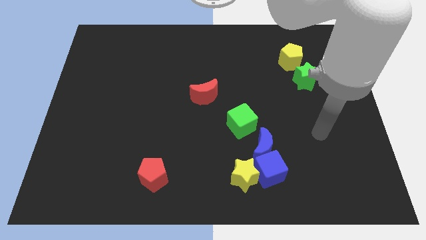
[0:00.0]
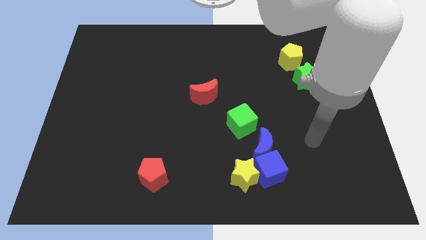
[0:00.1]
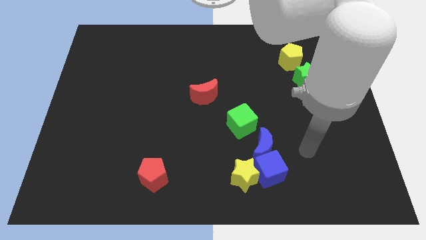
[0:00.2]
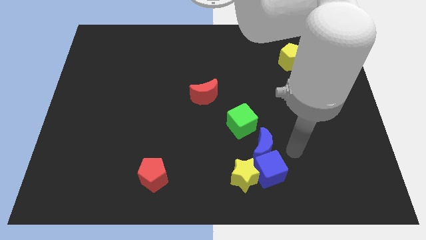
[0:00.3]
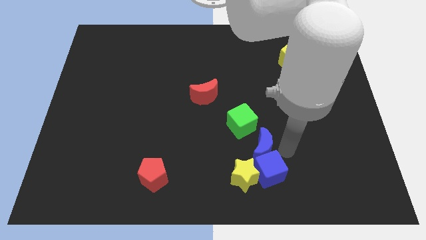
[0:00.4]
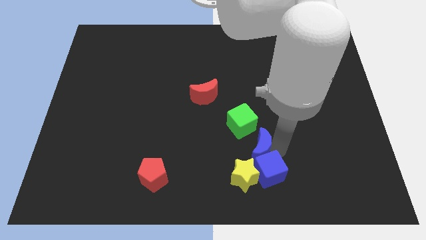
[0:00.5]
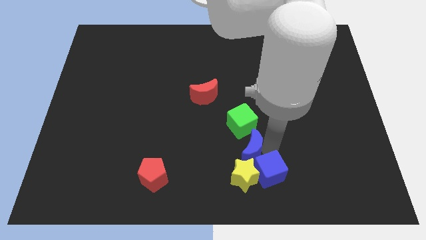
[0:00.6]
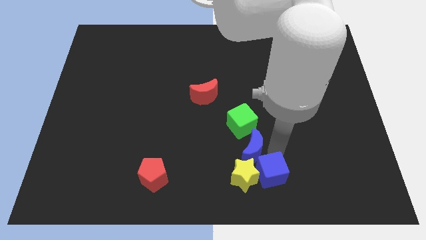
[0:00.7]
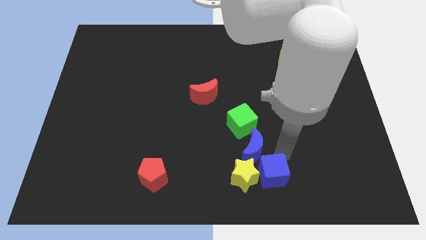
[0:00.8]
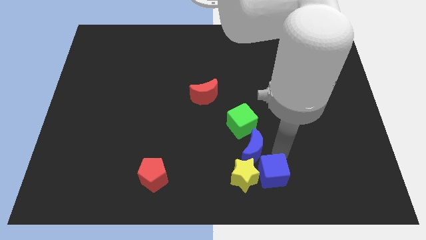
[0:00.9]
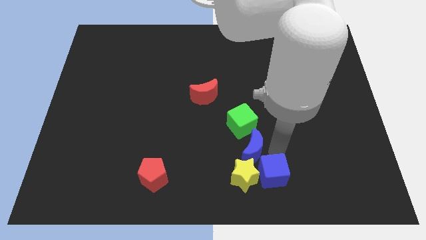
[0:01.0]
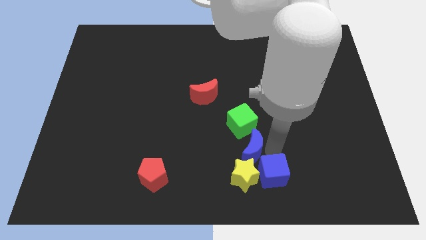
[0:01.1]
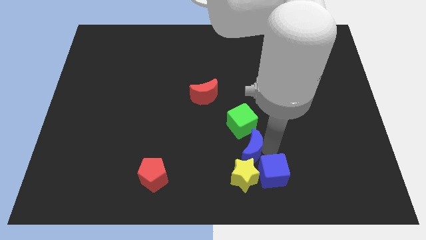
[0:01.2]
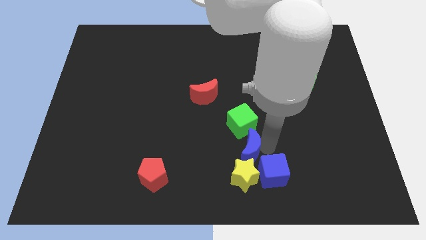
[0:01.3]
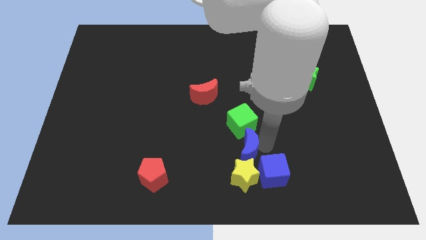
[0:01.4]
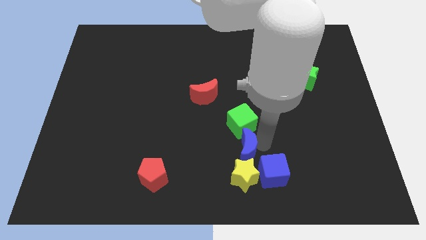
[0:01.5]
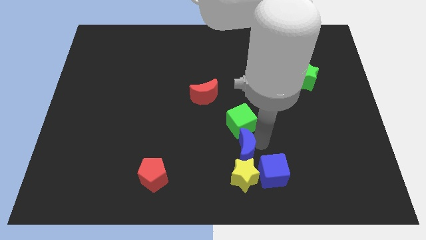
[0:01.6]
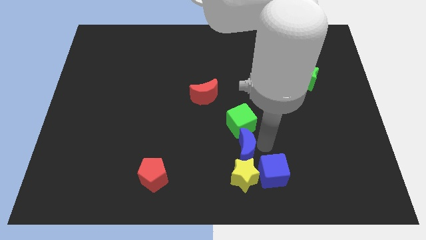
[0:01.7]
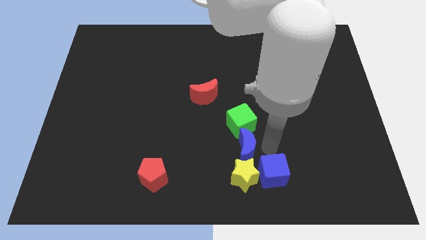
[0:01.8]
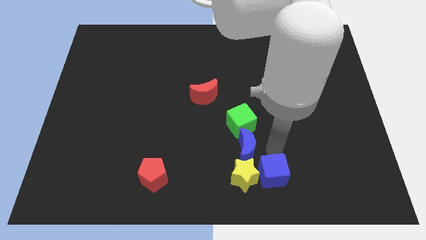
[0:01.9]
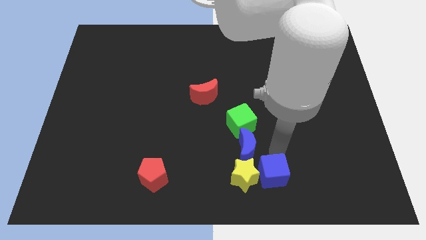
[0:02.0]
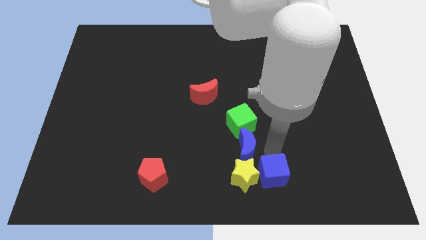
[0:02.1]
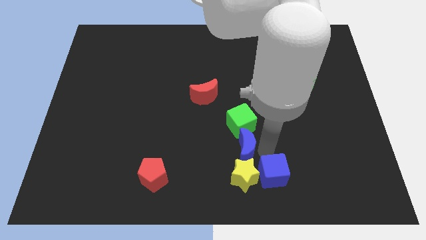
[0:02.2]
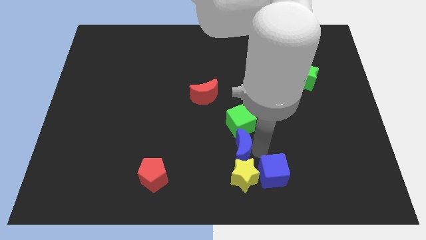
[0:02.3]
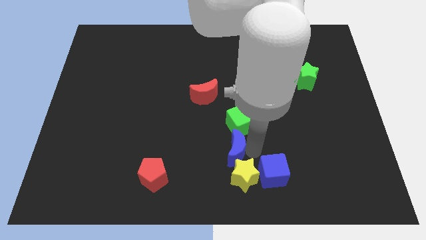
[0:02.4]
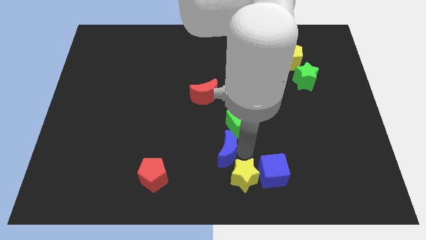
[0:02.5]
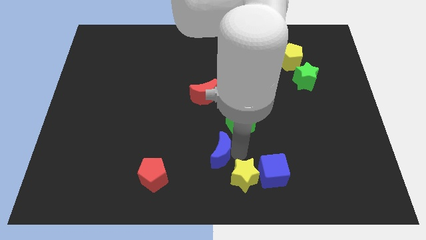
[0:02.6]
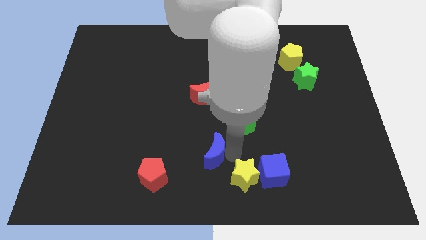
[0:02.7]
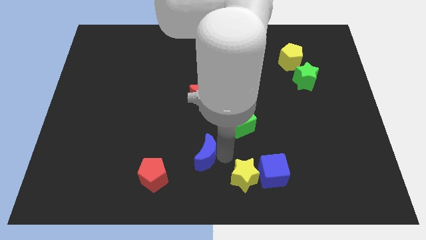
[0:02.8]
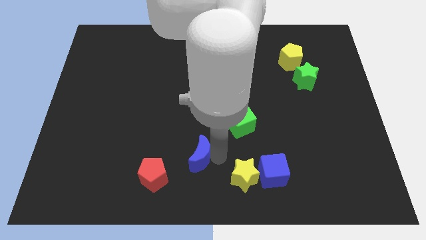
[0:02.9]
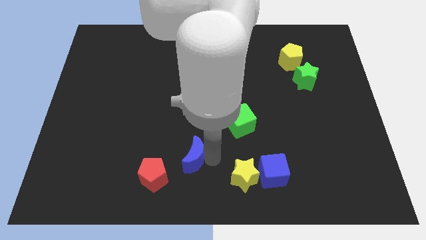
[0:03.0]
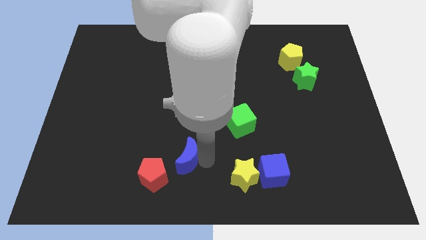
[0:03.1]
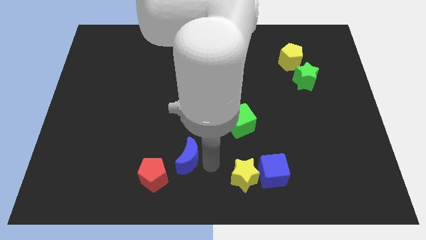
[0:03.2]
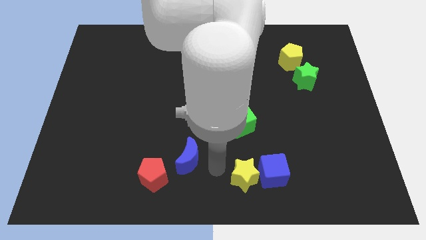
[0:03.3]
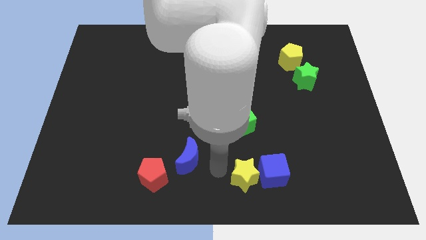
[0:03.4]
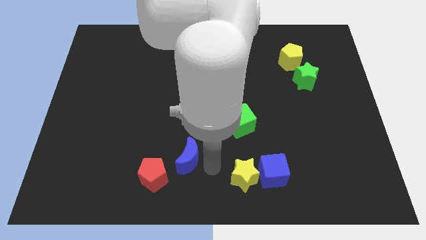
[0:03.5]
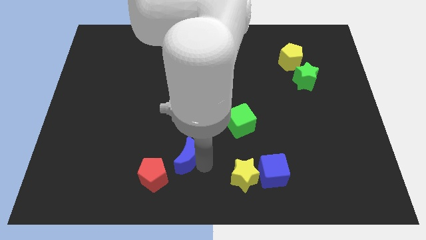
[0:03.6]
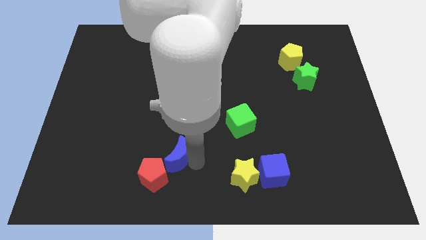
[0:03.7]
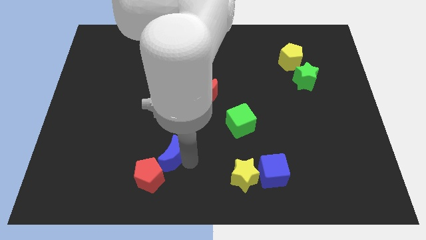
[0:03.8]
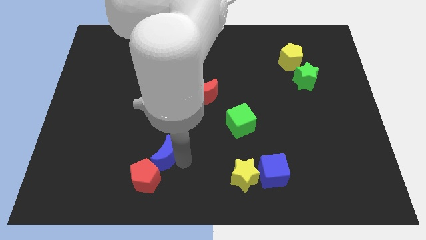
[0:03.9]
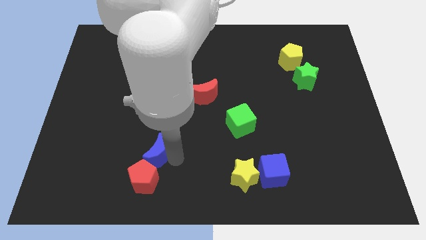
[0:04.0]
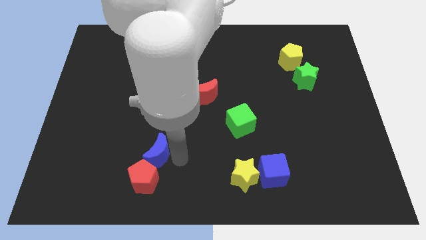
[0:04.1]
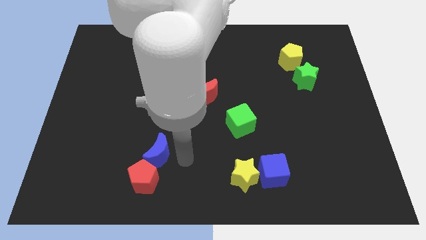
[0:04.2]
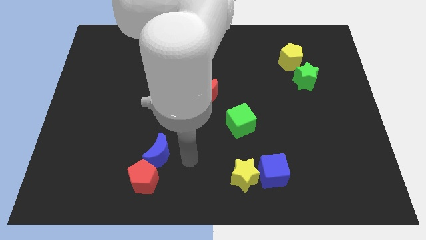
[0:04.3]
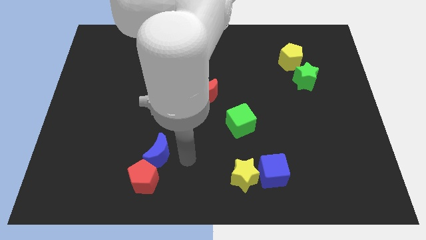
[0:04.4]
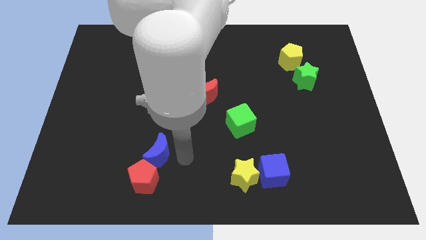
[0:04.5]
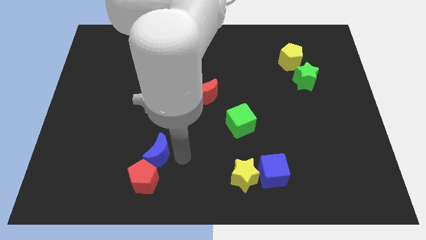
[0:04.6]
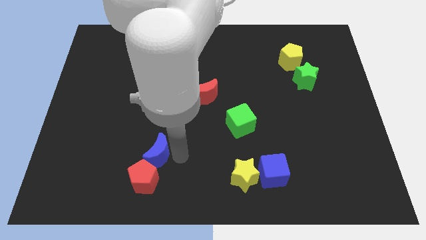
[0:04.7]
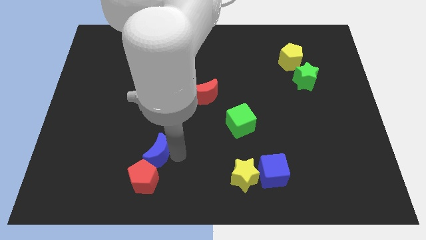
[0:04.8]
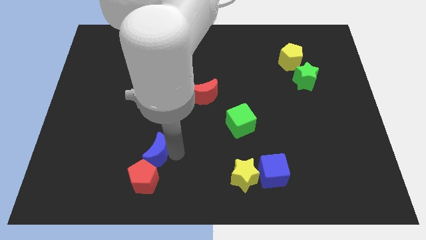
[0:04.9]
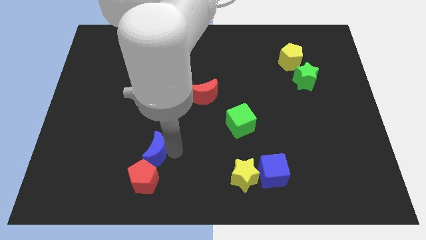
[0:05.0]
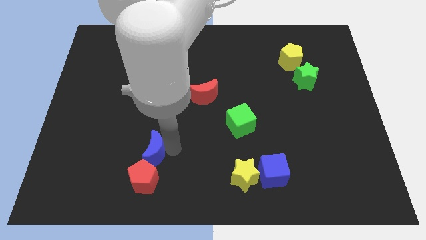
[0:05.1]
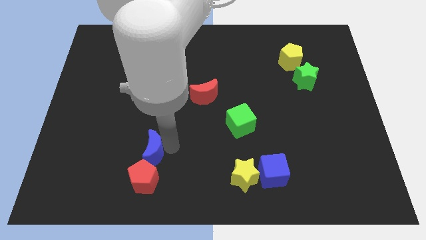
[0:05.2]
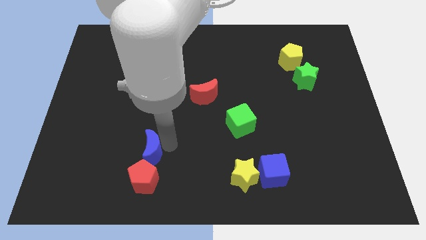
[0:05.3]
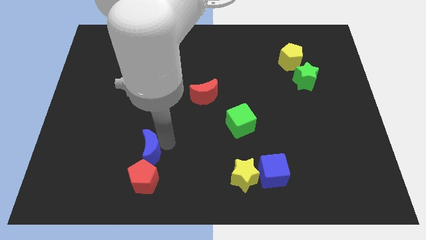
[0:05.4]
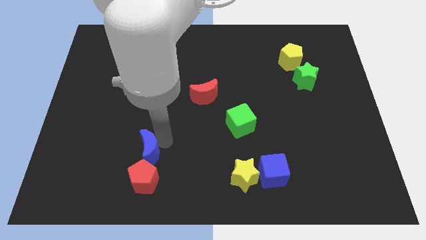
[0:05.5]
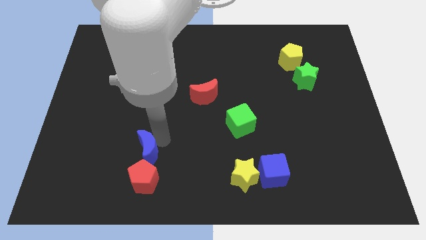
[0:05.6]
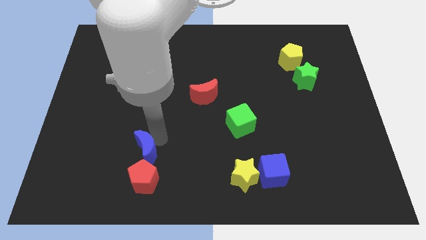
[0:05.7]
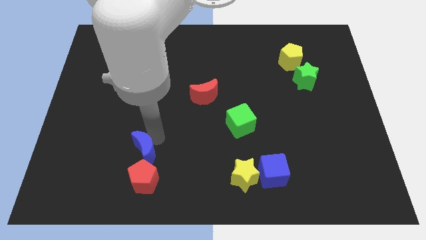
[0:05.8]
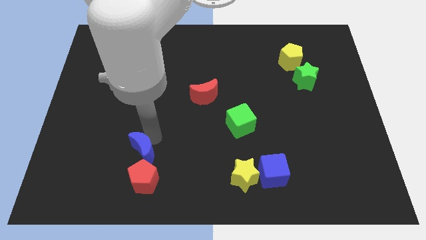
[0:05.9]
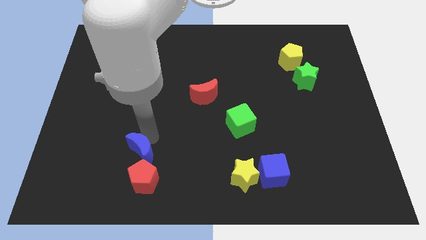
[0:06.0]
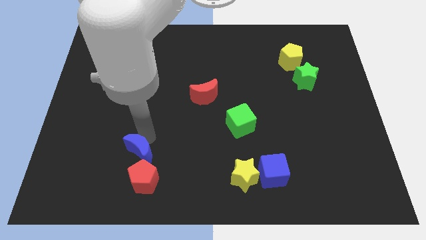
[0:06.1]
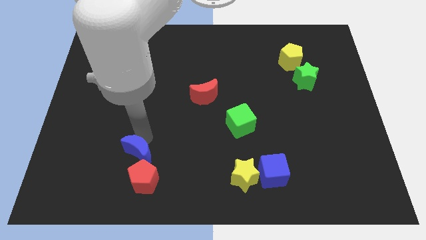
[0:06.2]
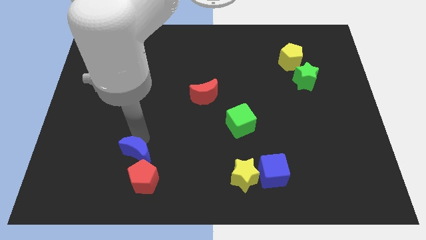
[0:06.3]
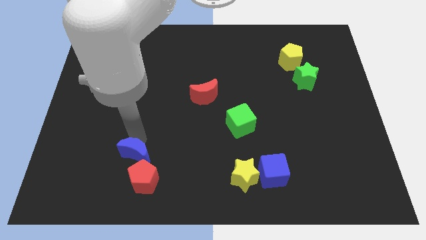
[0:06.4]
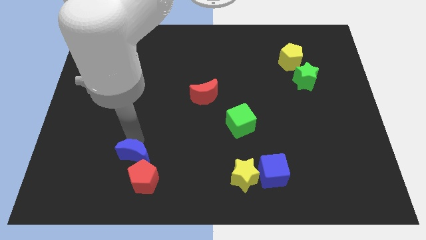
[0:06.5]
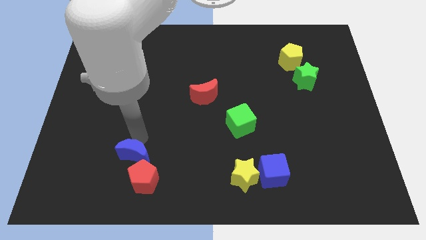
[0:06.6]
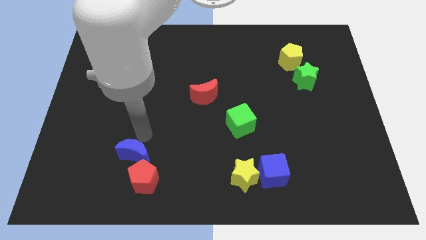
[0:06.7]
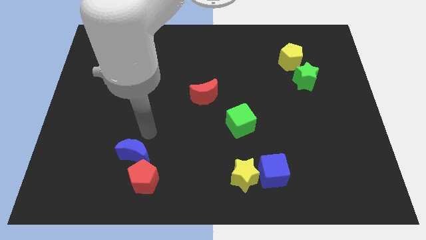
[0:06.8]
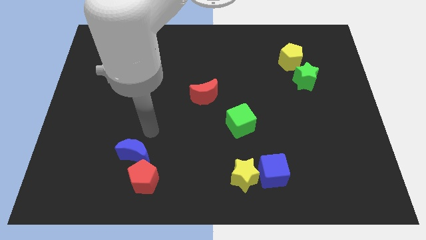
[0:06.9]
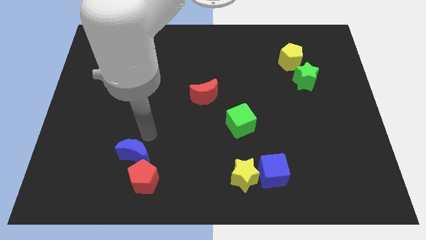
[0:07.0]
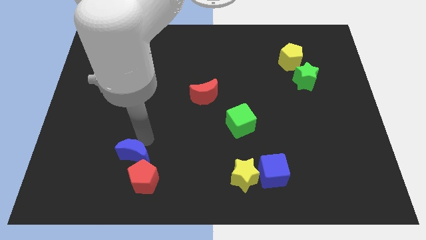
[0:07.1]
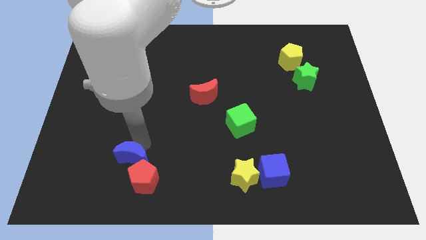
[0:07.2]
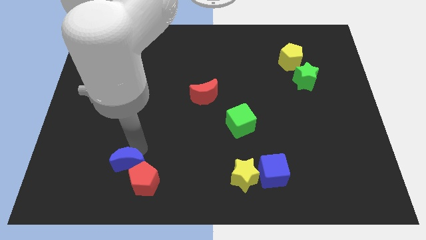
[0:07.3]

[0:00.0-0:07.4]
slide the blue moon just left of the red pentagon
